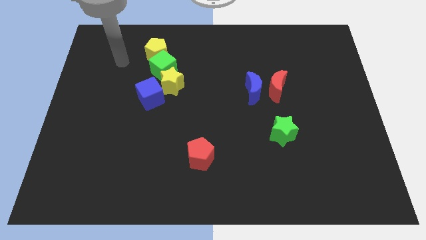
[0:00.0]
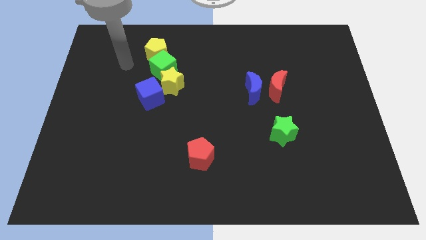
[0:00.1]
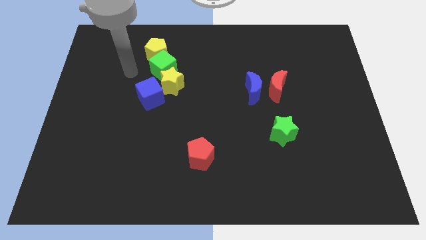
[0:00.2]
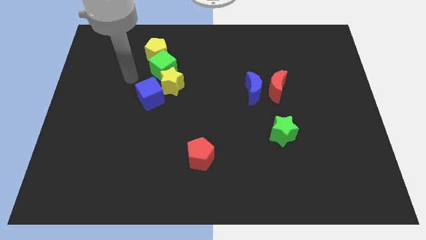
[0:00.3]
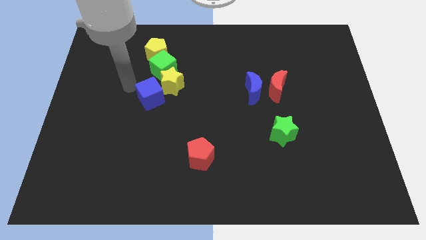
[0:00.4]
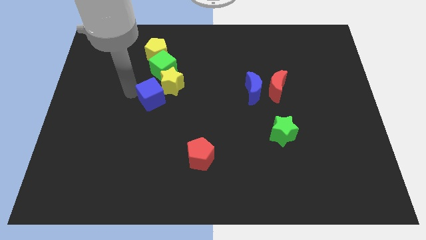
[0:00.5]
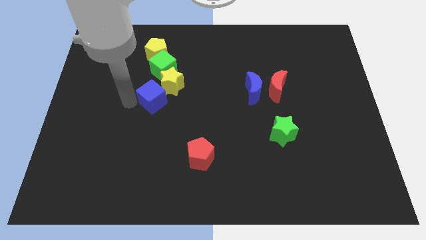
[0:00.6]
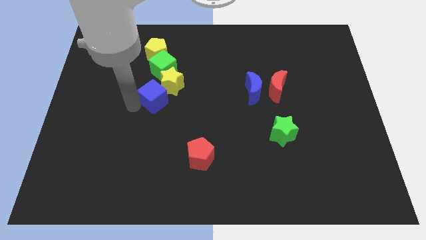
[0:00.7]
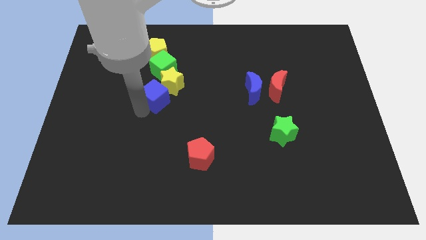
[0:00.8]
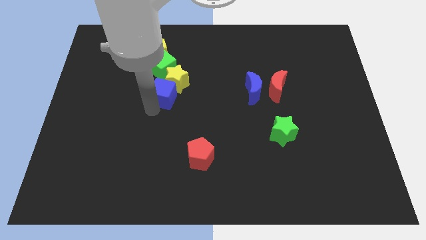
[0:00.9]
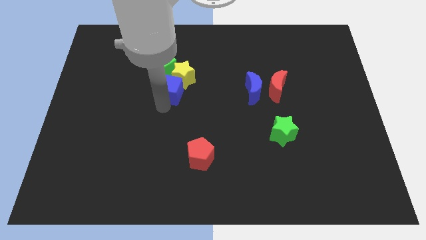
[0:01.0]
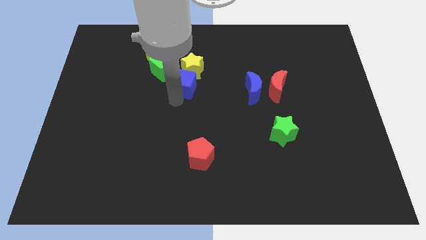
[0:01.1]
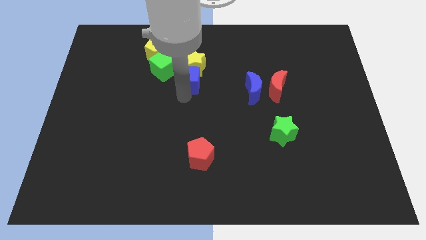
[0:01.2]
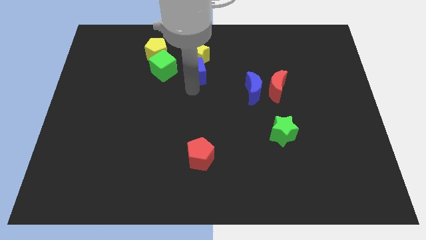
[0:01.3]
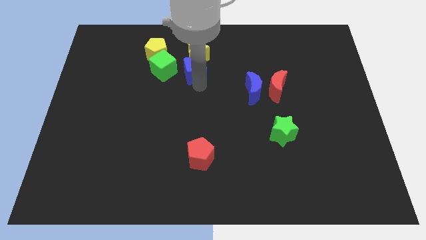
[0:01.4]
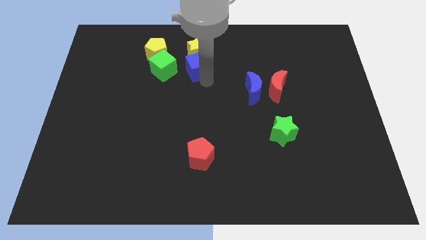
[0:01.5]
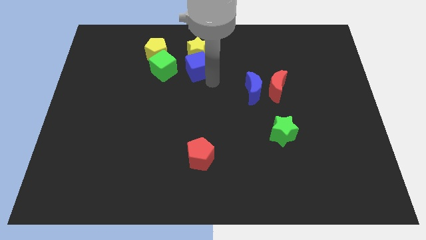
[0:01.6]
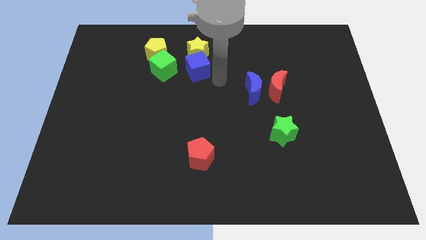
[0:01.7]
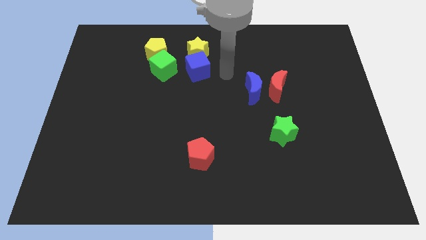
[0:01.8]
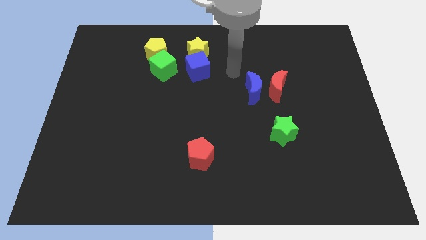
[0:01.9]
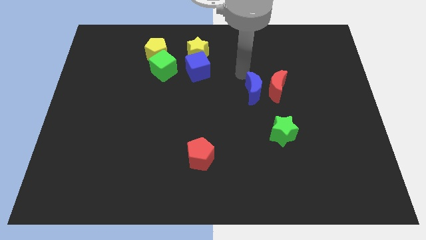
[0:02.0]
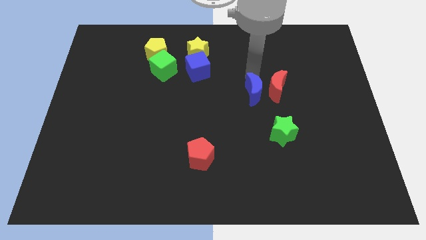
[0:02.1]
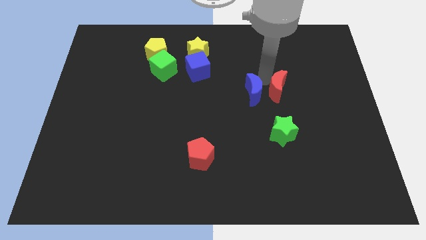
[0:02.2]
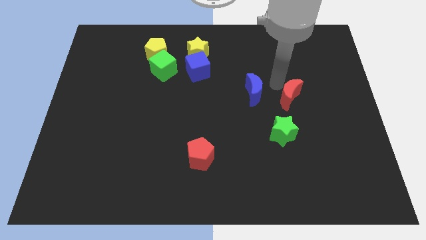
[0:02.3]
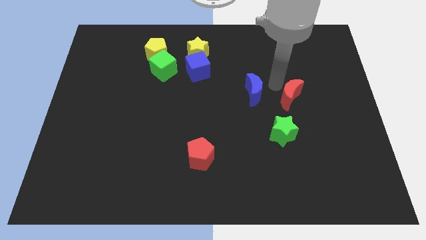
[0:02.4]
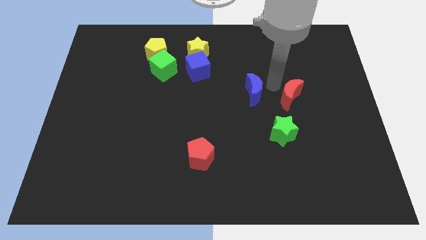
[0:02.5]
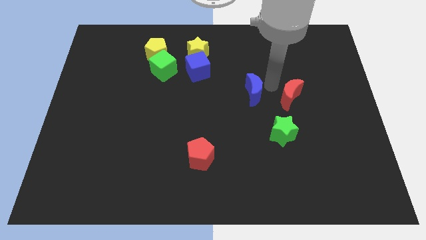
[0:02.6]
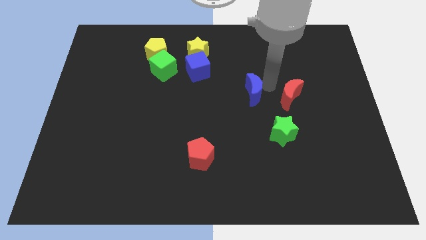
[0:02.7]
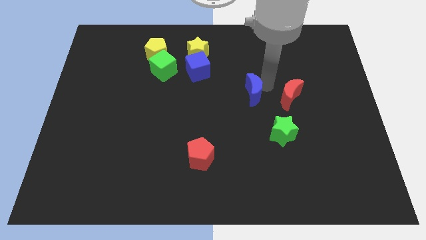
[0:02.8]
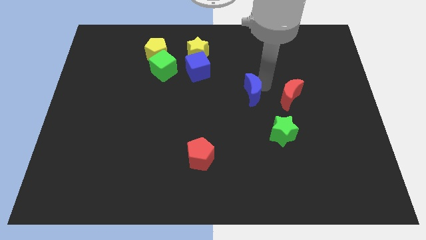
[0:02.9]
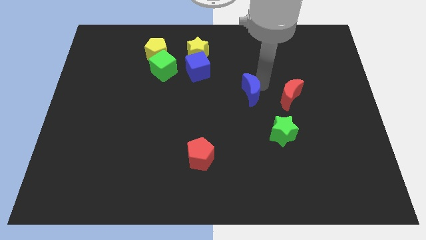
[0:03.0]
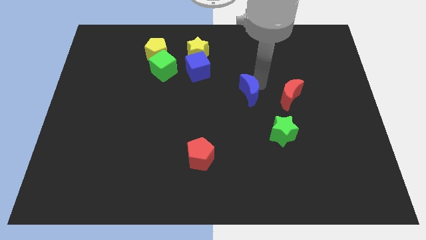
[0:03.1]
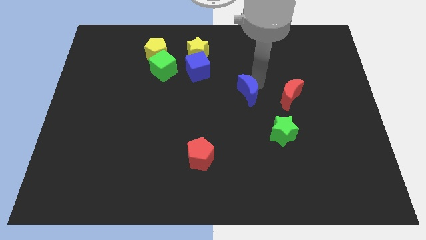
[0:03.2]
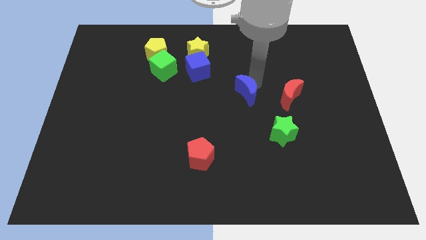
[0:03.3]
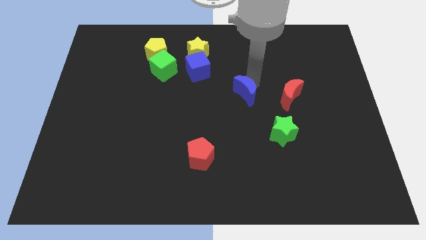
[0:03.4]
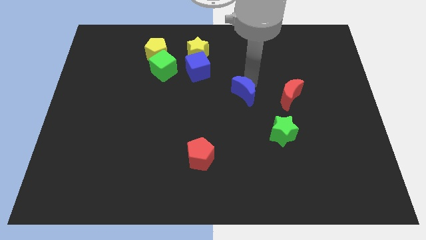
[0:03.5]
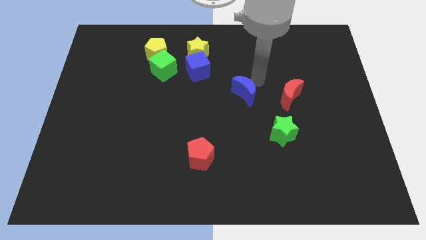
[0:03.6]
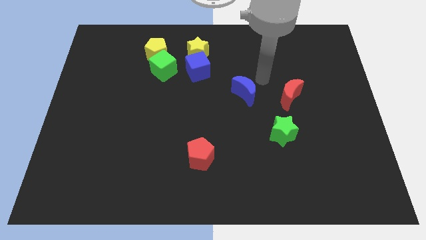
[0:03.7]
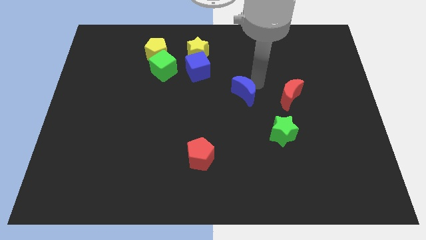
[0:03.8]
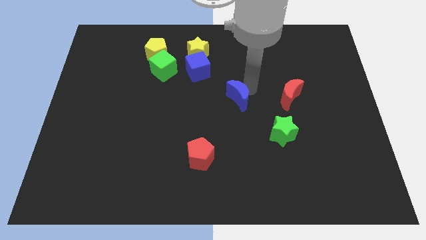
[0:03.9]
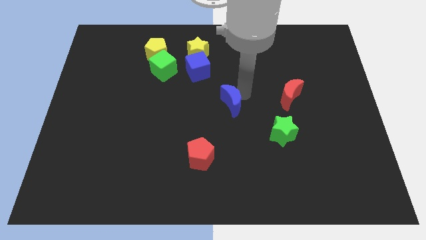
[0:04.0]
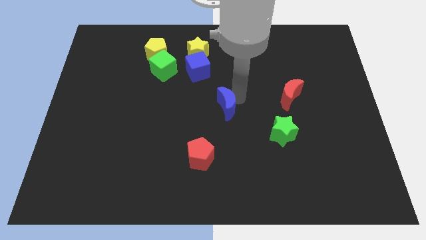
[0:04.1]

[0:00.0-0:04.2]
slightly move the blue moon downwards and left diagonally

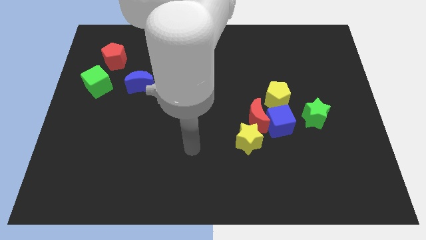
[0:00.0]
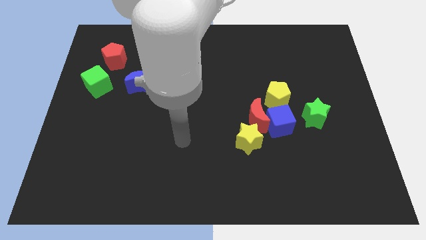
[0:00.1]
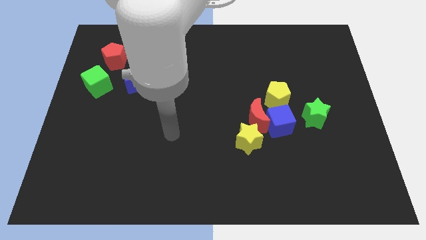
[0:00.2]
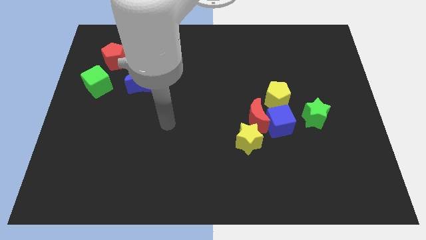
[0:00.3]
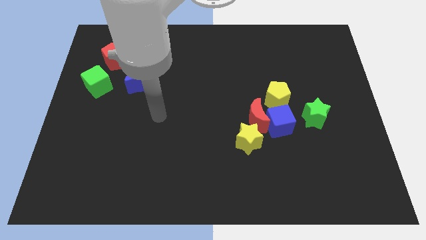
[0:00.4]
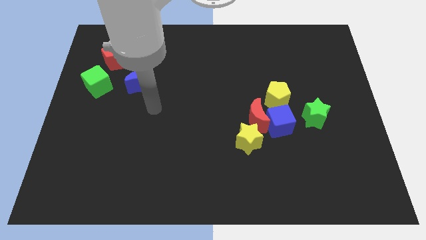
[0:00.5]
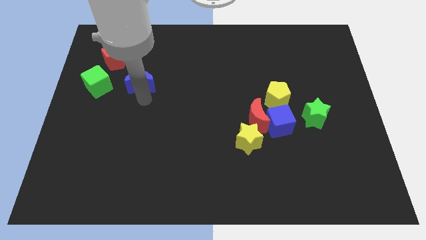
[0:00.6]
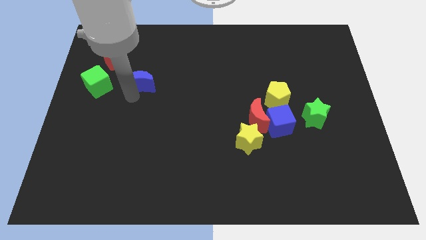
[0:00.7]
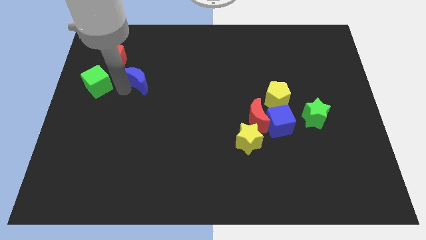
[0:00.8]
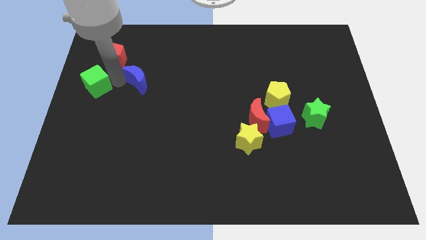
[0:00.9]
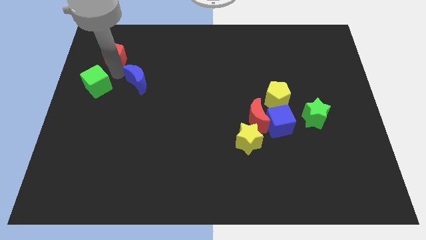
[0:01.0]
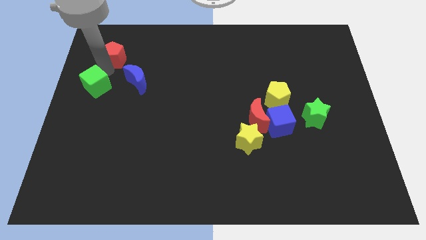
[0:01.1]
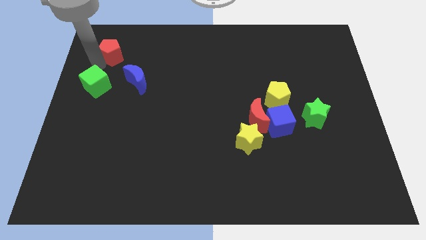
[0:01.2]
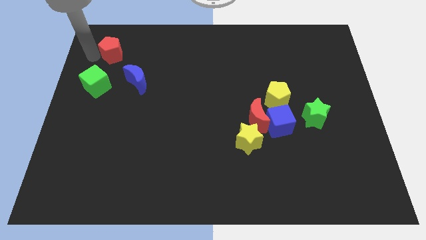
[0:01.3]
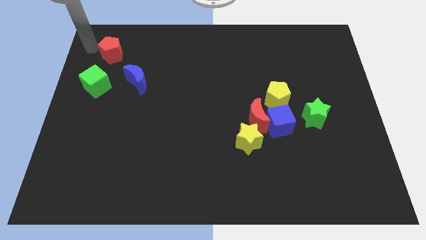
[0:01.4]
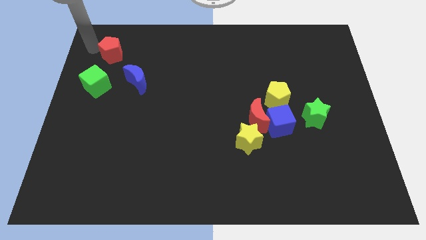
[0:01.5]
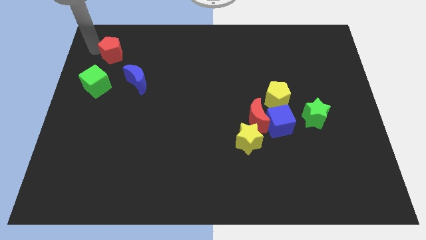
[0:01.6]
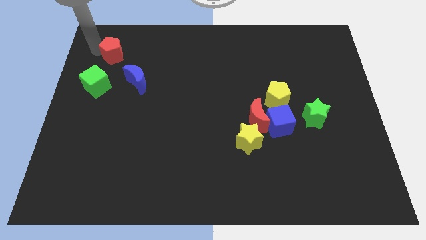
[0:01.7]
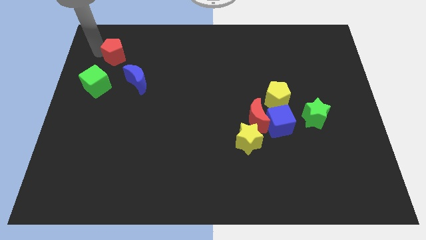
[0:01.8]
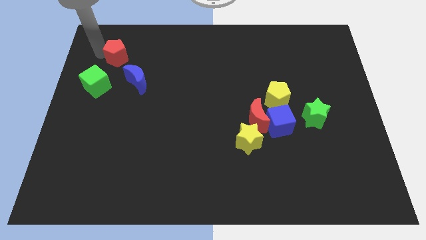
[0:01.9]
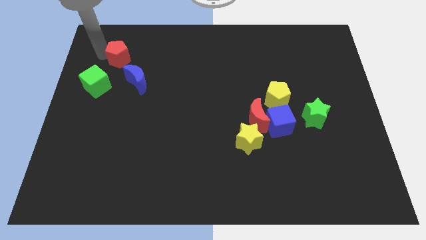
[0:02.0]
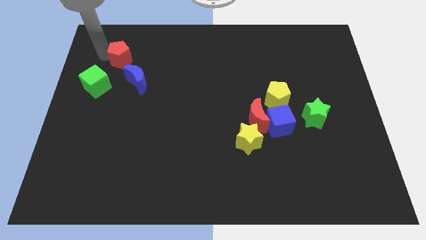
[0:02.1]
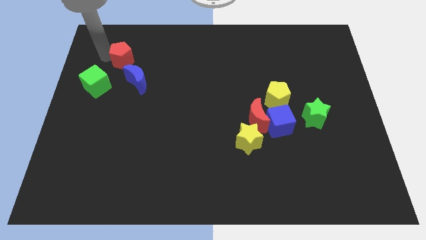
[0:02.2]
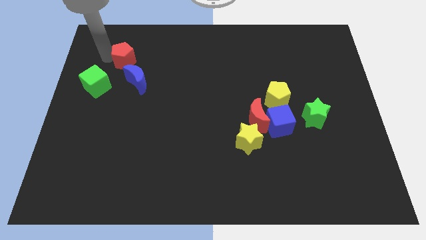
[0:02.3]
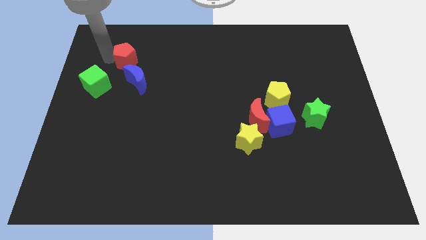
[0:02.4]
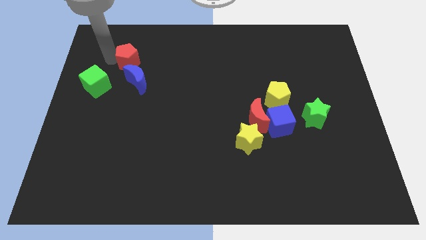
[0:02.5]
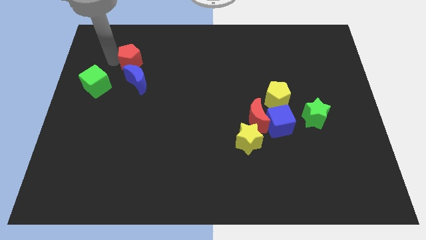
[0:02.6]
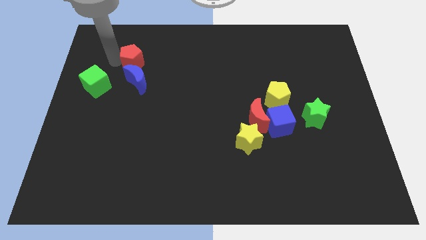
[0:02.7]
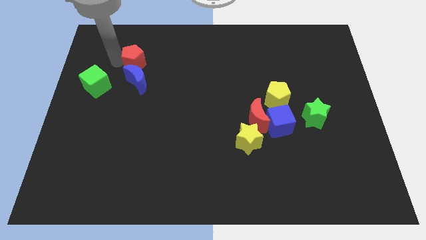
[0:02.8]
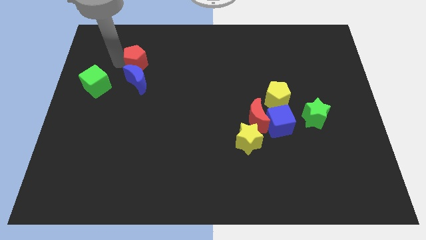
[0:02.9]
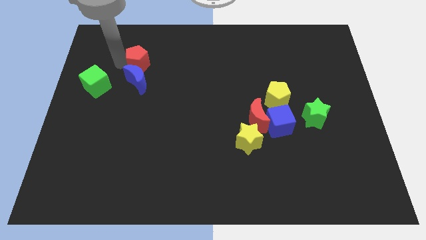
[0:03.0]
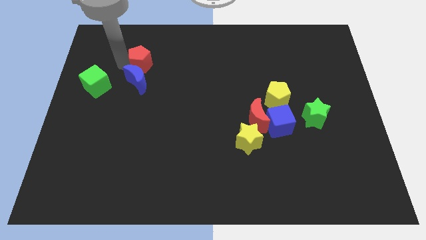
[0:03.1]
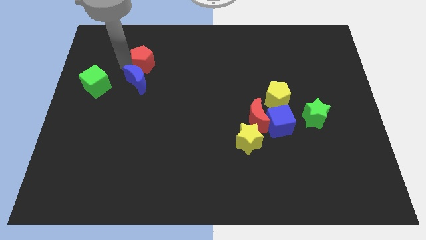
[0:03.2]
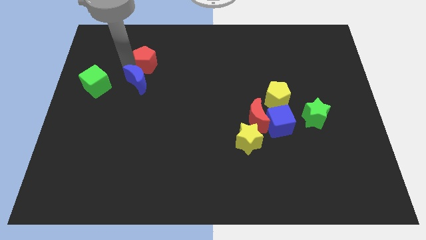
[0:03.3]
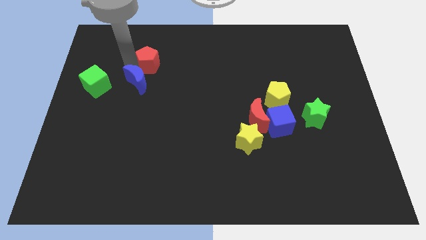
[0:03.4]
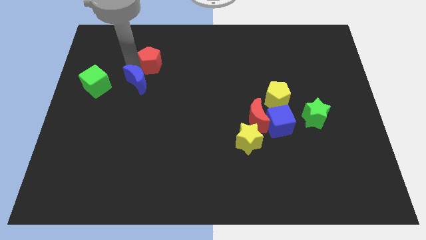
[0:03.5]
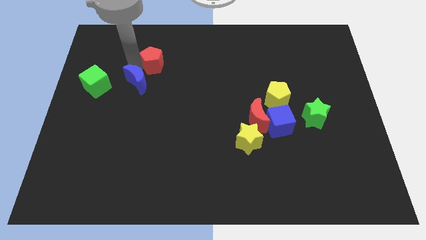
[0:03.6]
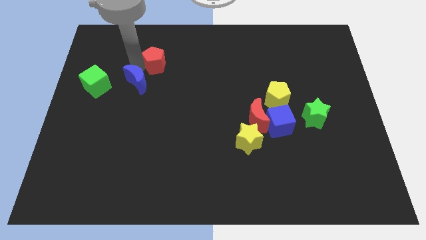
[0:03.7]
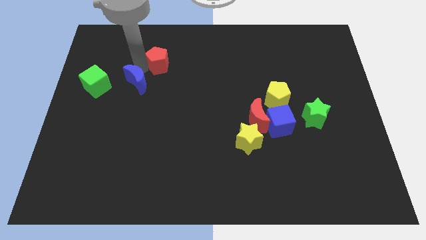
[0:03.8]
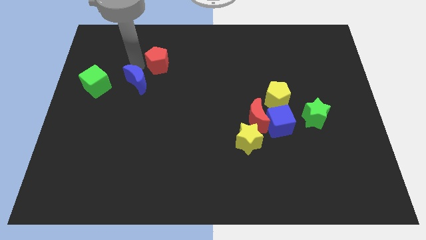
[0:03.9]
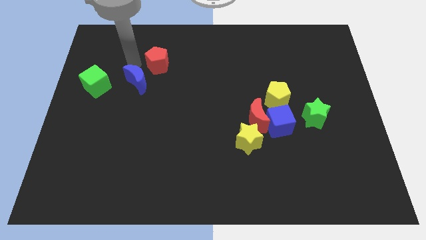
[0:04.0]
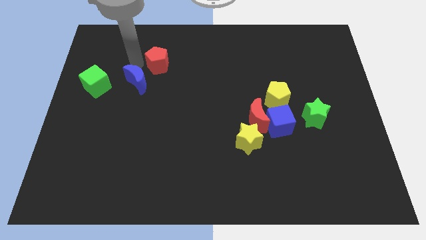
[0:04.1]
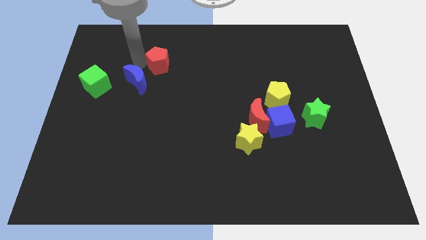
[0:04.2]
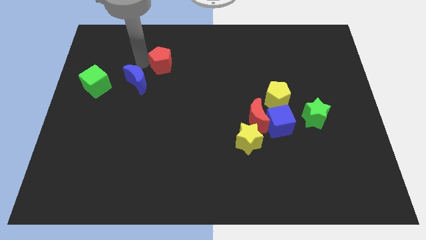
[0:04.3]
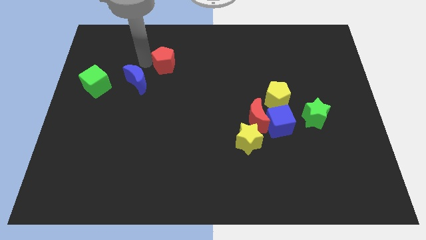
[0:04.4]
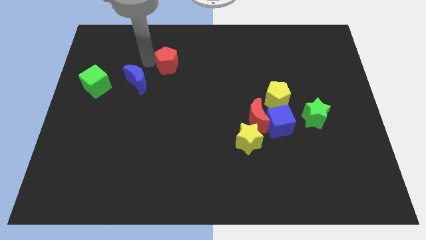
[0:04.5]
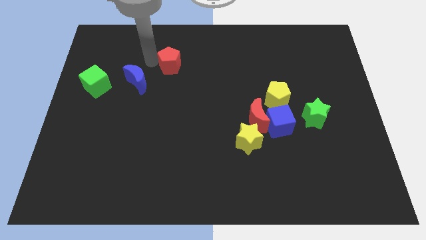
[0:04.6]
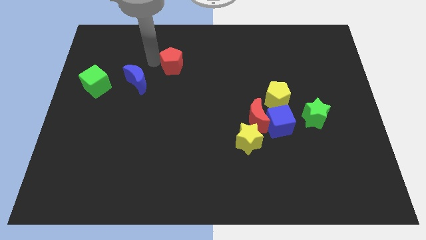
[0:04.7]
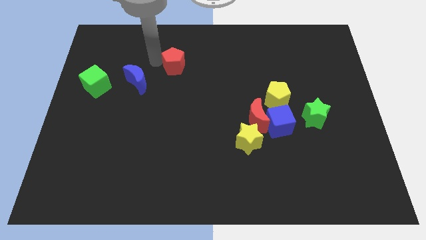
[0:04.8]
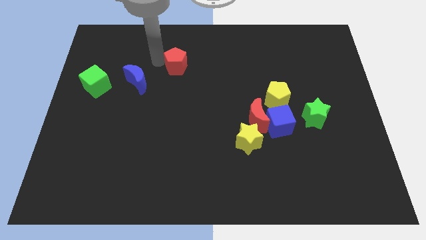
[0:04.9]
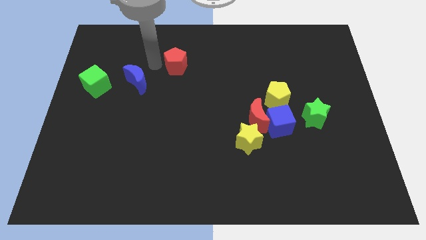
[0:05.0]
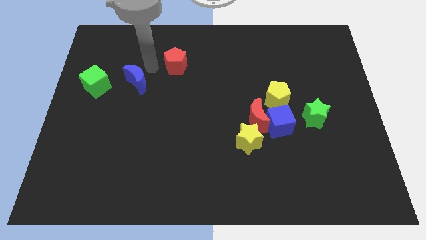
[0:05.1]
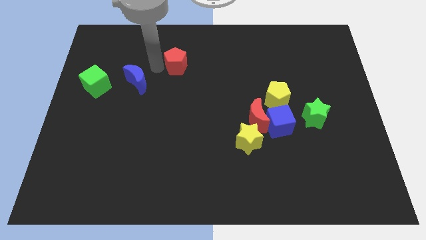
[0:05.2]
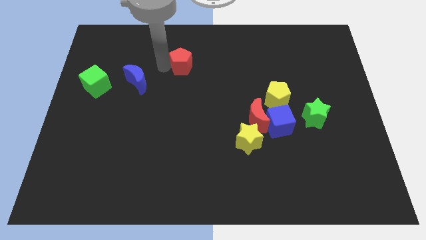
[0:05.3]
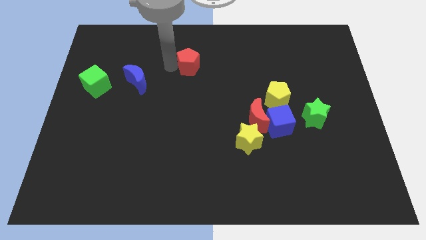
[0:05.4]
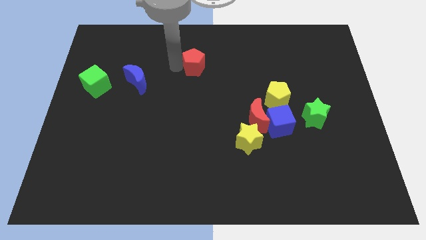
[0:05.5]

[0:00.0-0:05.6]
move the red pentagon to the right
